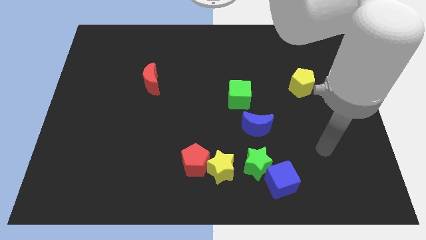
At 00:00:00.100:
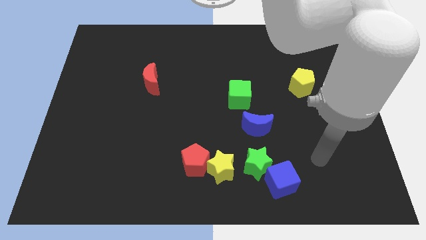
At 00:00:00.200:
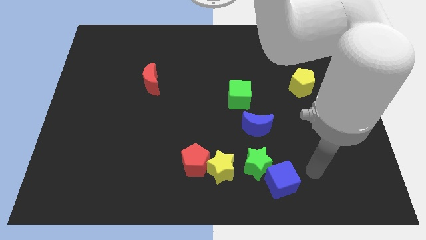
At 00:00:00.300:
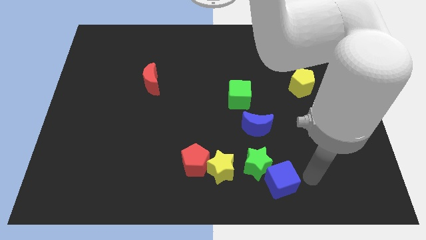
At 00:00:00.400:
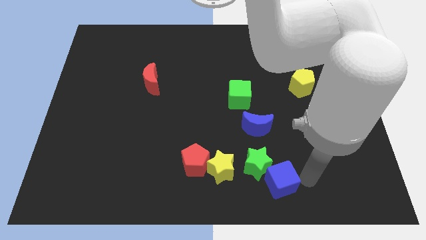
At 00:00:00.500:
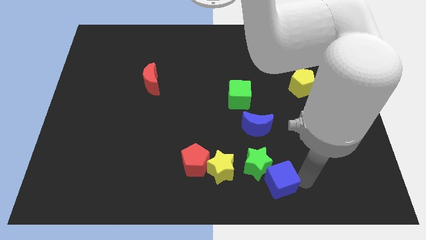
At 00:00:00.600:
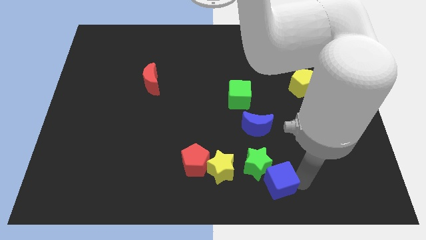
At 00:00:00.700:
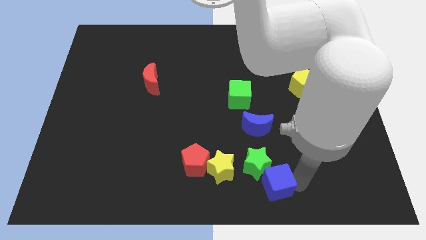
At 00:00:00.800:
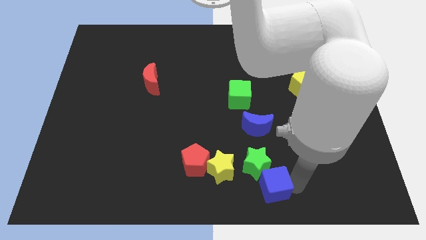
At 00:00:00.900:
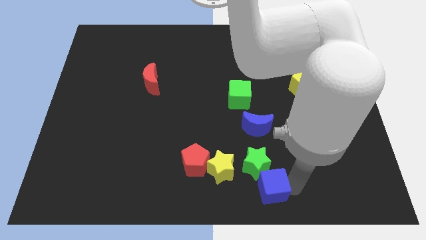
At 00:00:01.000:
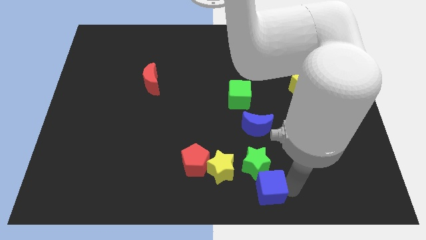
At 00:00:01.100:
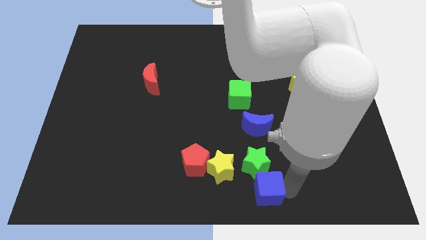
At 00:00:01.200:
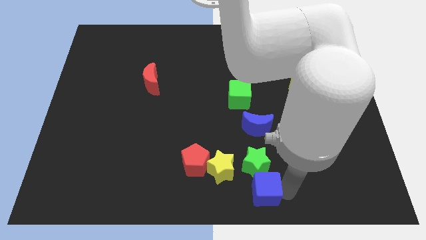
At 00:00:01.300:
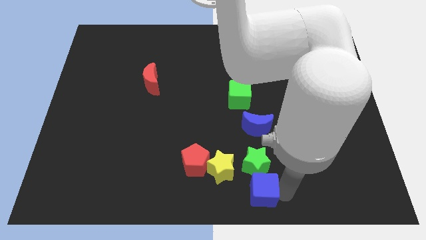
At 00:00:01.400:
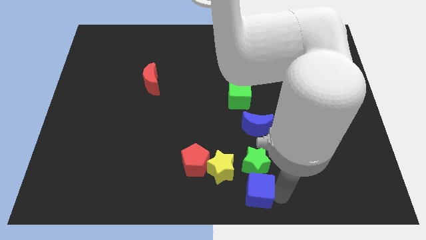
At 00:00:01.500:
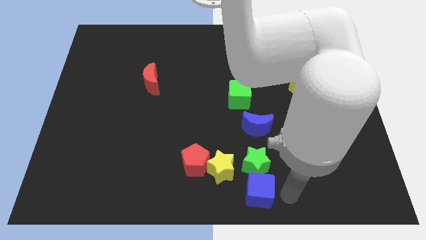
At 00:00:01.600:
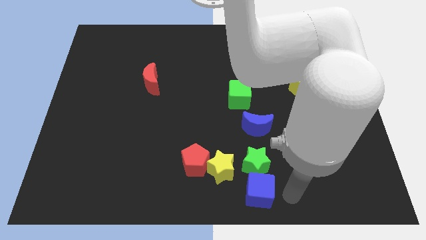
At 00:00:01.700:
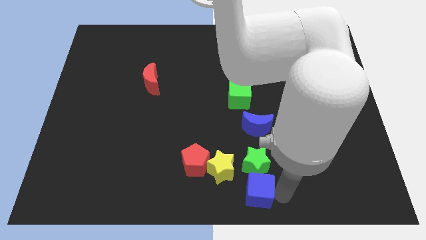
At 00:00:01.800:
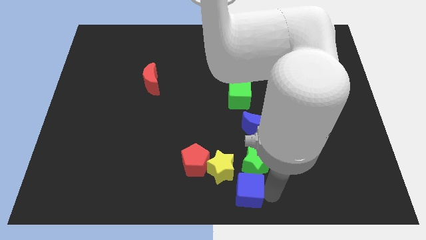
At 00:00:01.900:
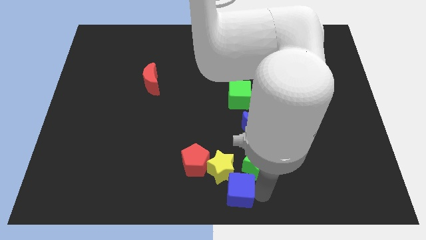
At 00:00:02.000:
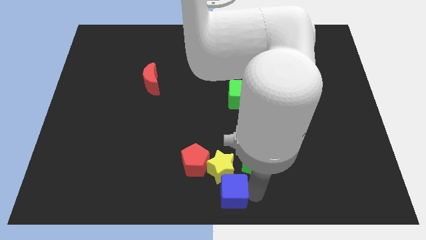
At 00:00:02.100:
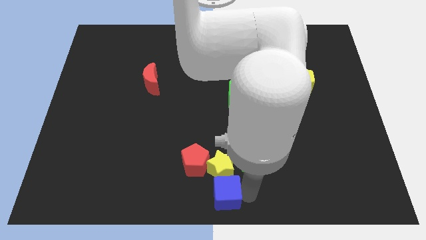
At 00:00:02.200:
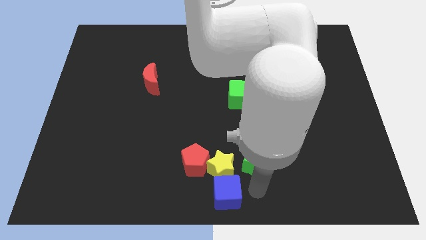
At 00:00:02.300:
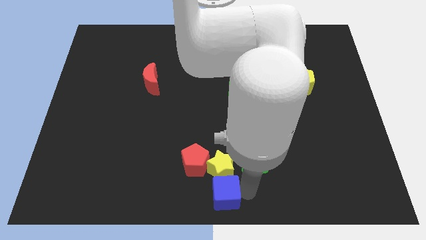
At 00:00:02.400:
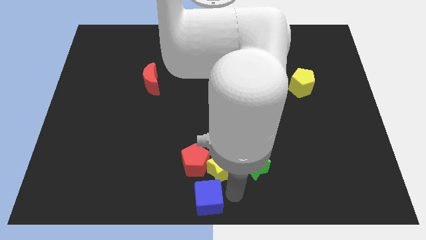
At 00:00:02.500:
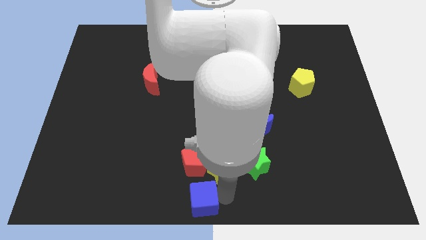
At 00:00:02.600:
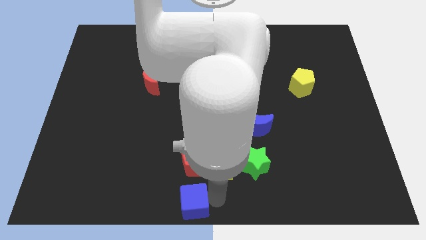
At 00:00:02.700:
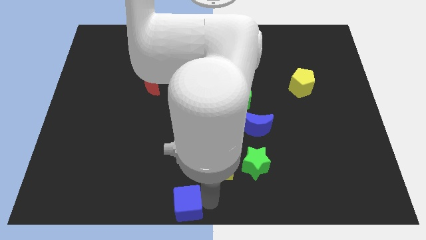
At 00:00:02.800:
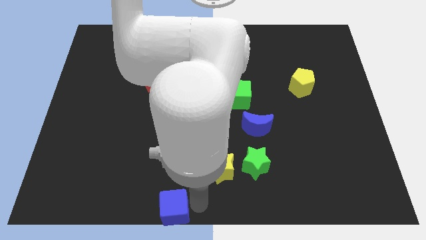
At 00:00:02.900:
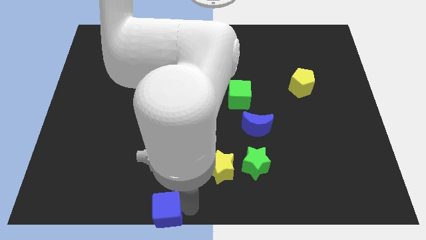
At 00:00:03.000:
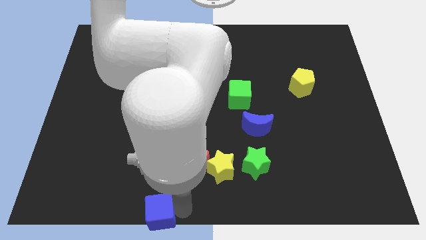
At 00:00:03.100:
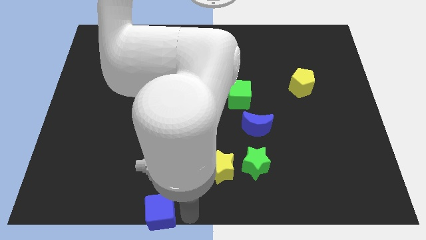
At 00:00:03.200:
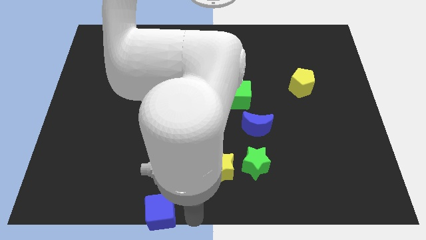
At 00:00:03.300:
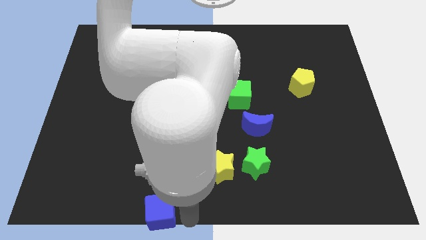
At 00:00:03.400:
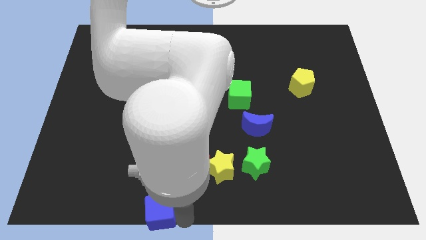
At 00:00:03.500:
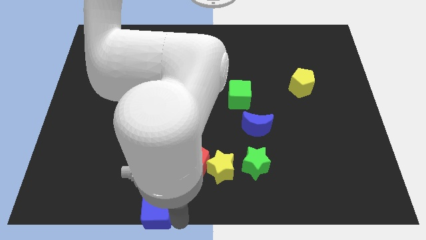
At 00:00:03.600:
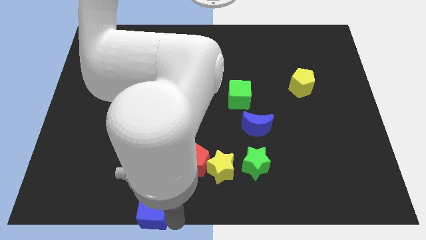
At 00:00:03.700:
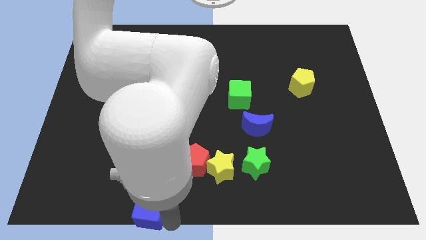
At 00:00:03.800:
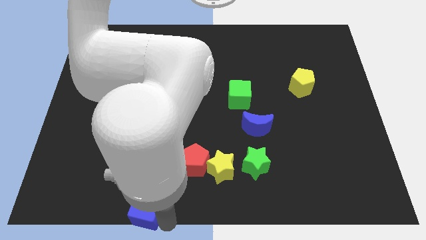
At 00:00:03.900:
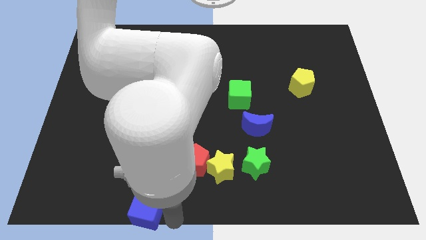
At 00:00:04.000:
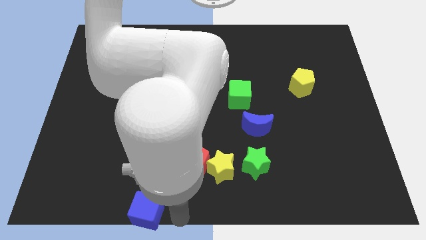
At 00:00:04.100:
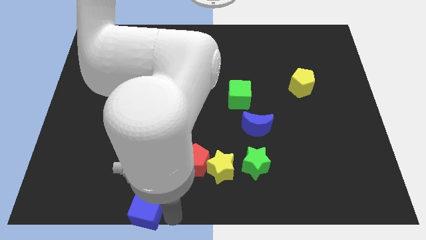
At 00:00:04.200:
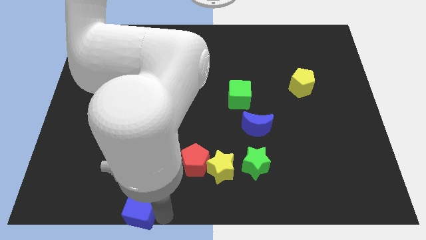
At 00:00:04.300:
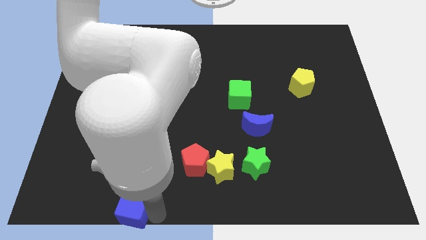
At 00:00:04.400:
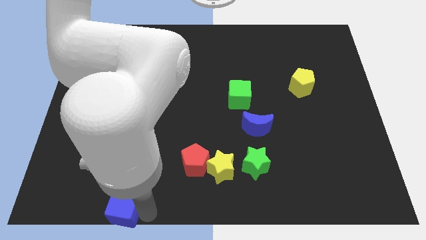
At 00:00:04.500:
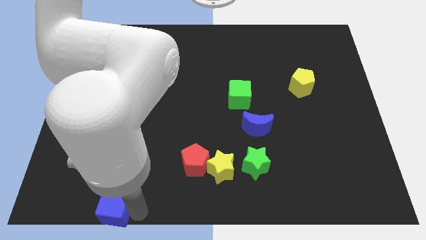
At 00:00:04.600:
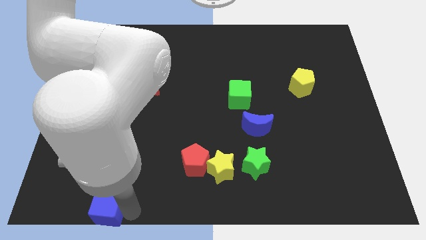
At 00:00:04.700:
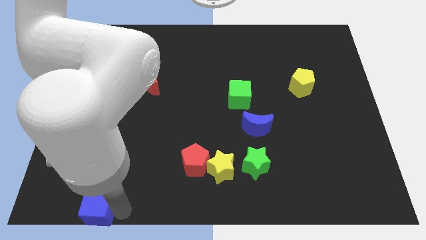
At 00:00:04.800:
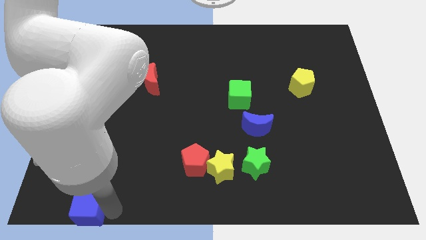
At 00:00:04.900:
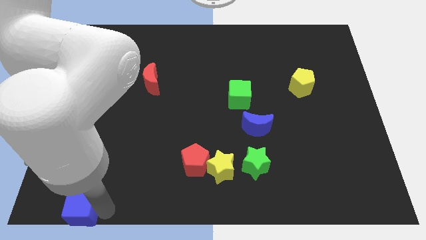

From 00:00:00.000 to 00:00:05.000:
move the blue cube to the bottom left corner

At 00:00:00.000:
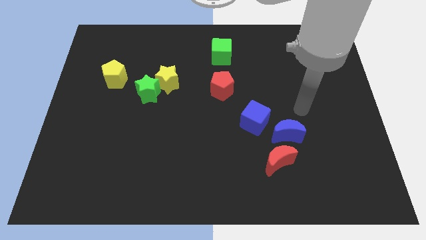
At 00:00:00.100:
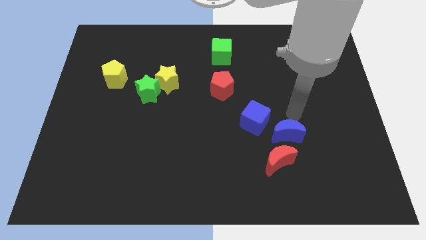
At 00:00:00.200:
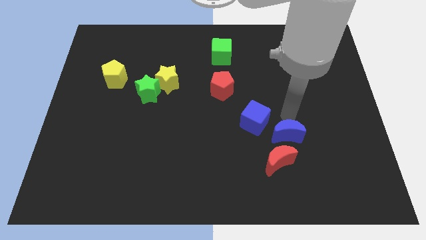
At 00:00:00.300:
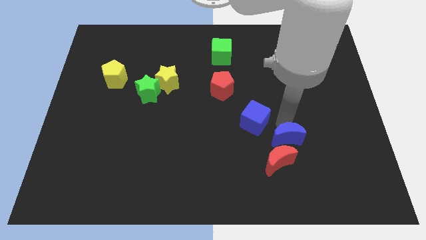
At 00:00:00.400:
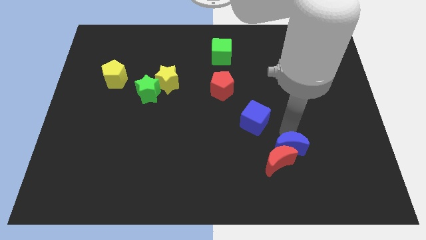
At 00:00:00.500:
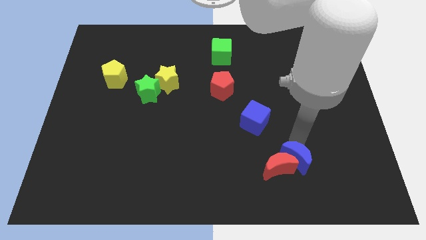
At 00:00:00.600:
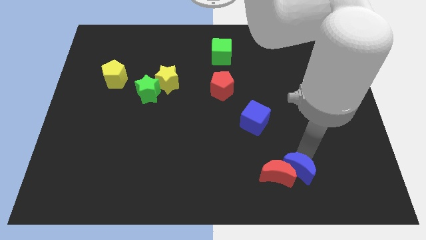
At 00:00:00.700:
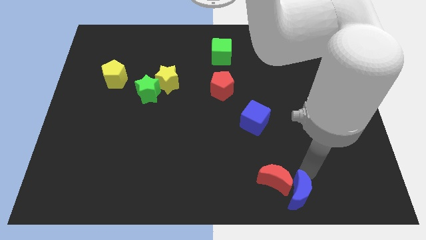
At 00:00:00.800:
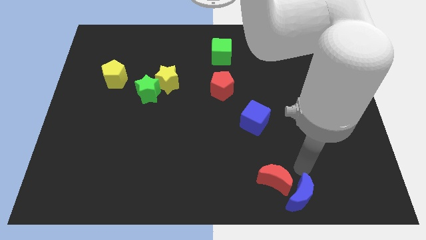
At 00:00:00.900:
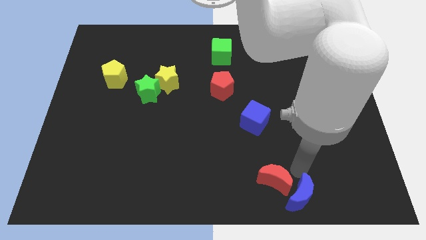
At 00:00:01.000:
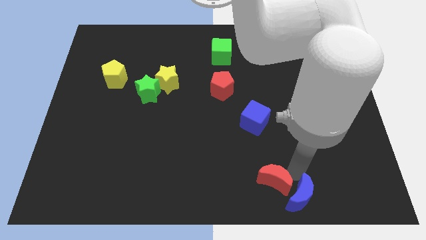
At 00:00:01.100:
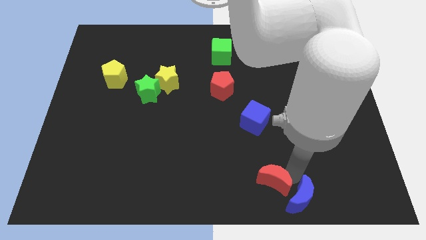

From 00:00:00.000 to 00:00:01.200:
put the red moon to the bottom
